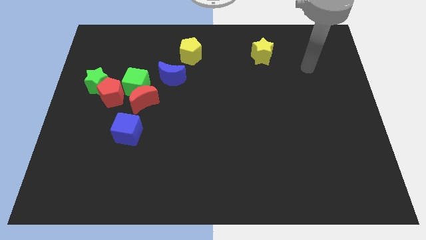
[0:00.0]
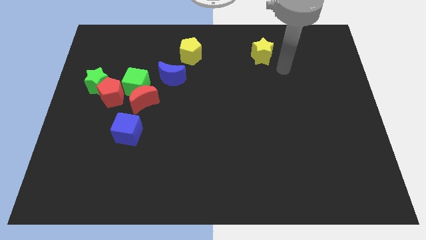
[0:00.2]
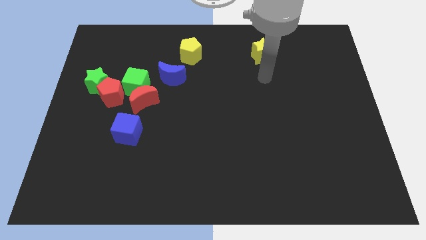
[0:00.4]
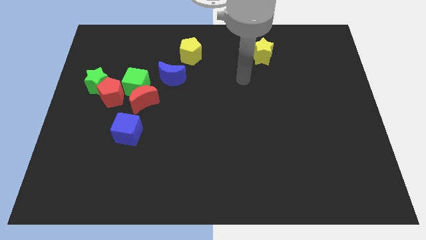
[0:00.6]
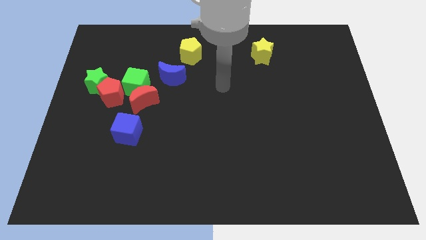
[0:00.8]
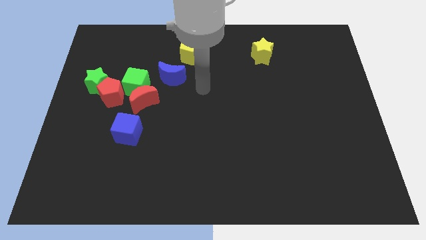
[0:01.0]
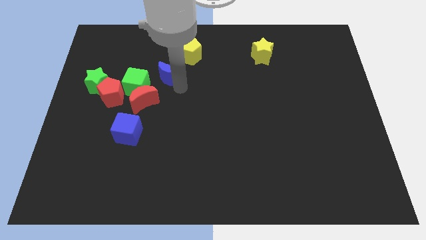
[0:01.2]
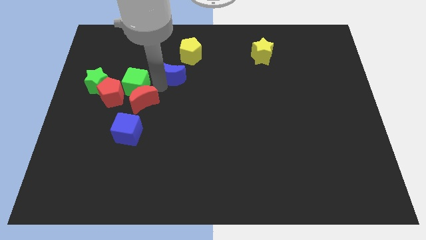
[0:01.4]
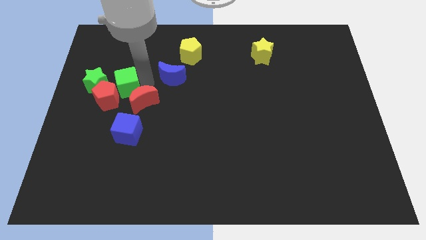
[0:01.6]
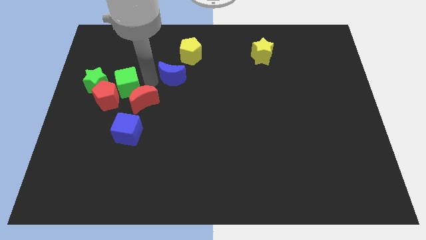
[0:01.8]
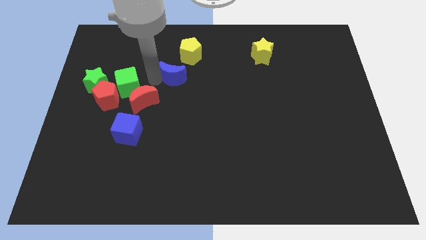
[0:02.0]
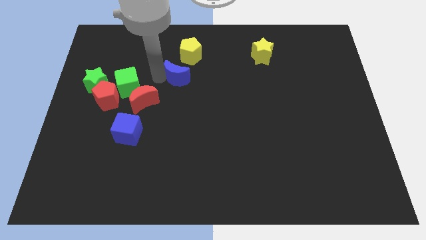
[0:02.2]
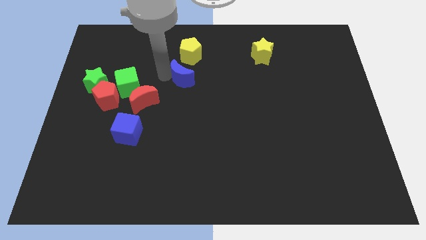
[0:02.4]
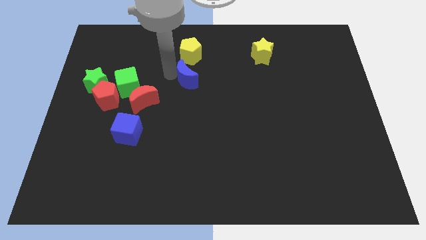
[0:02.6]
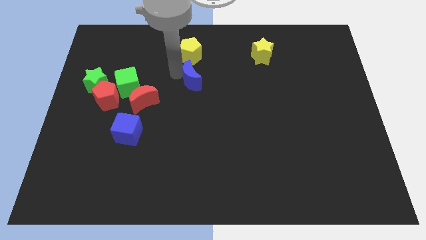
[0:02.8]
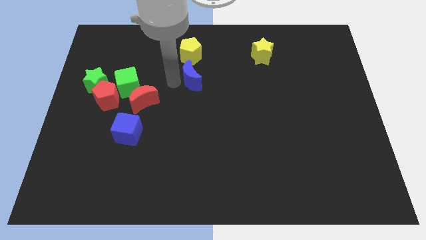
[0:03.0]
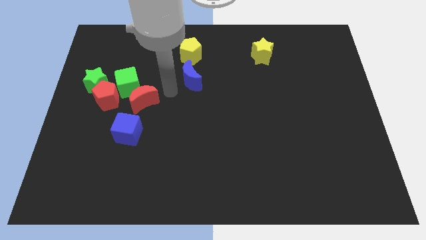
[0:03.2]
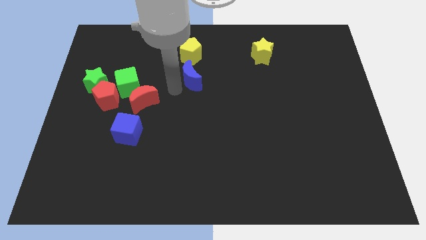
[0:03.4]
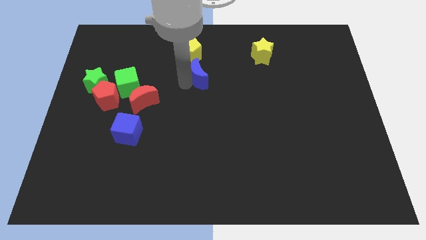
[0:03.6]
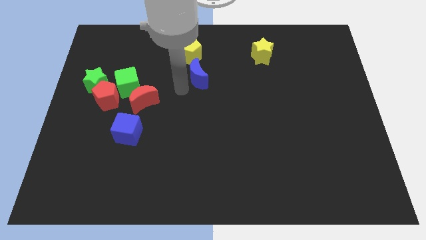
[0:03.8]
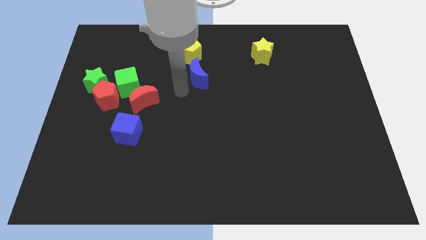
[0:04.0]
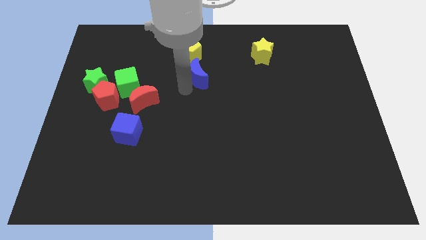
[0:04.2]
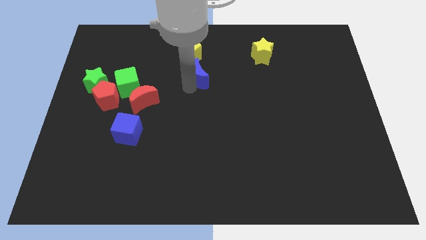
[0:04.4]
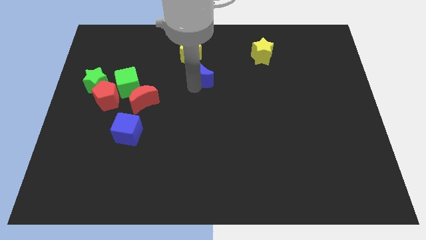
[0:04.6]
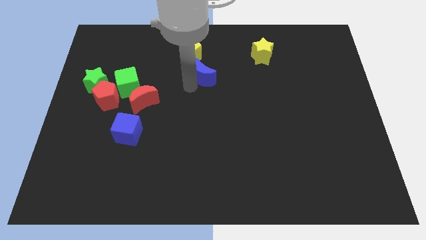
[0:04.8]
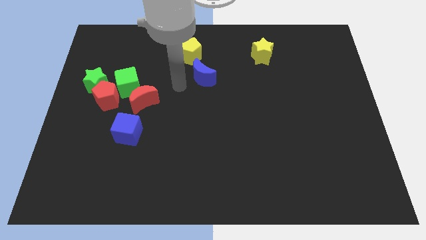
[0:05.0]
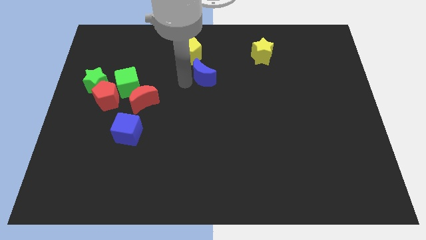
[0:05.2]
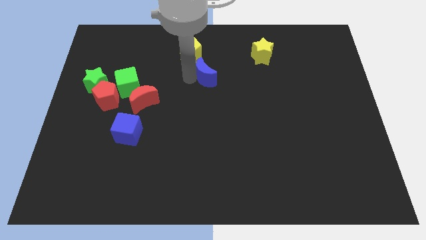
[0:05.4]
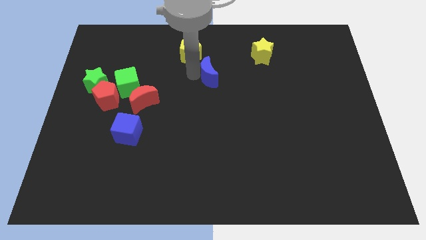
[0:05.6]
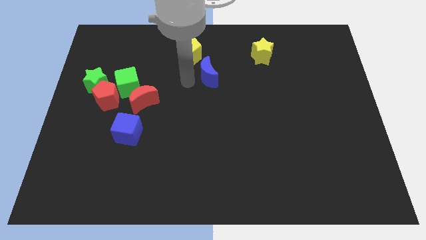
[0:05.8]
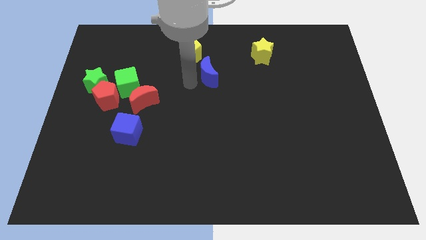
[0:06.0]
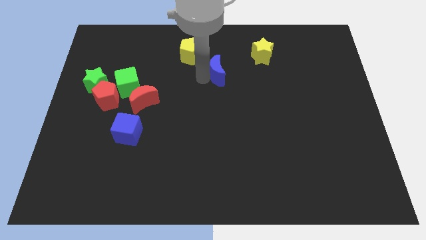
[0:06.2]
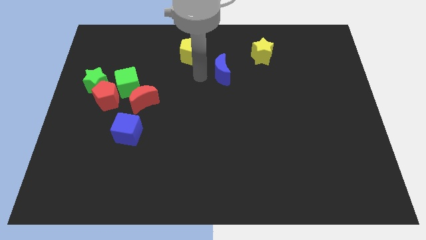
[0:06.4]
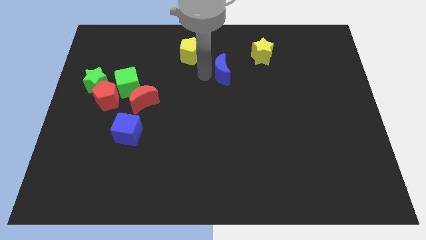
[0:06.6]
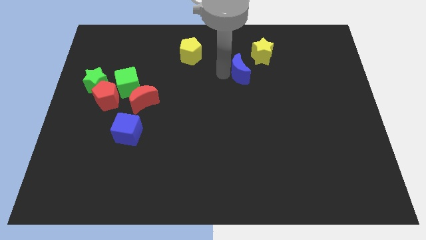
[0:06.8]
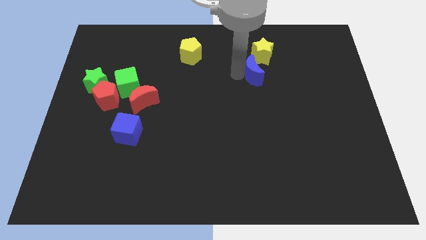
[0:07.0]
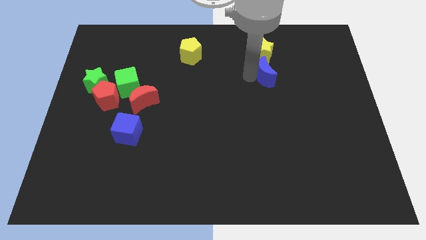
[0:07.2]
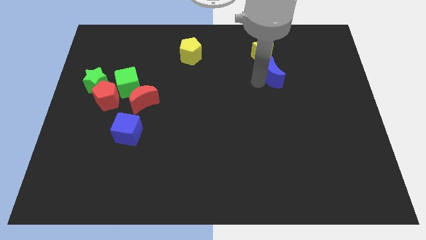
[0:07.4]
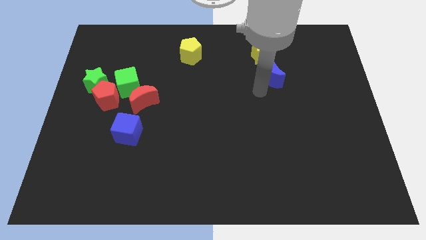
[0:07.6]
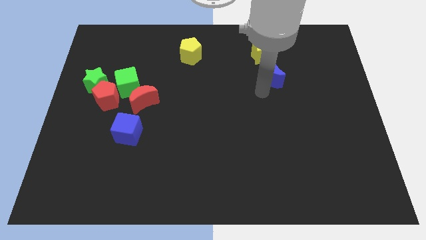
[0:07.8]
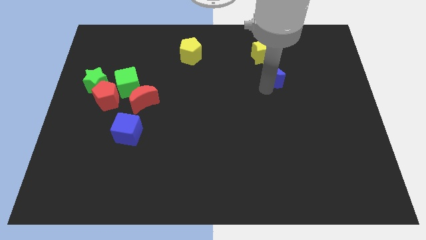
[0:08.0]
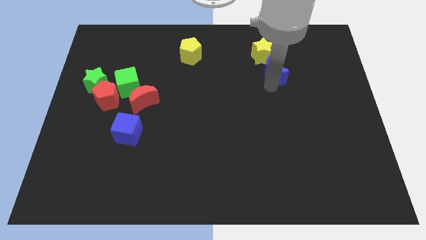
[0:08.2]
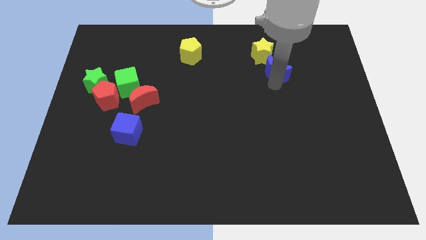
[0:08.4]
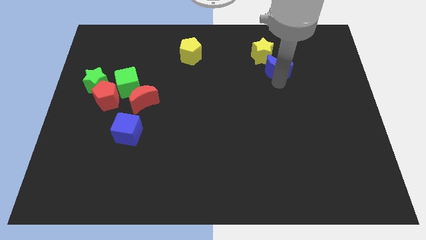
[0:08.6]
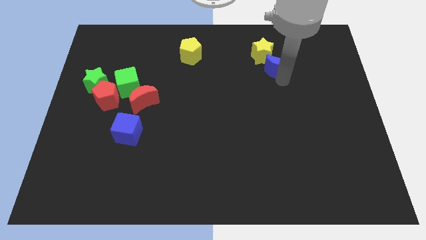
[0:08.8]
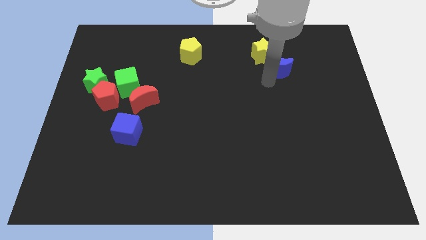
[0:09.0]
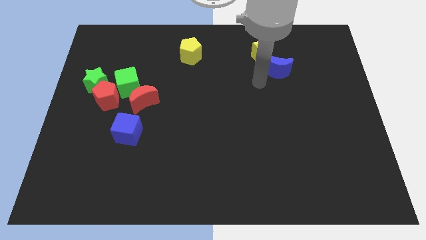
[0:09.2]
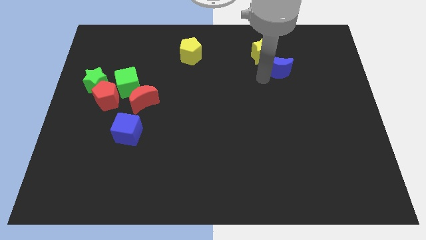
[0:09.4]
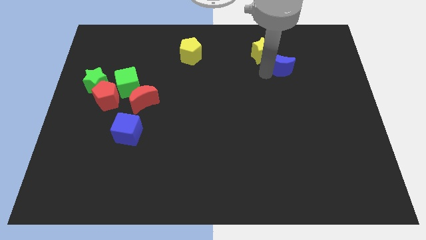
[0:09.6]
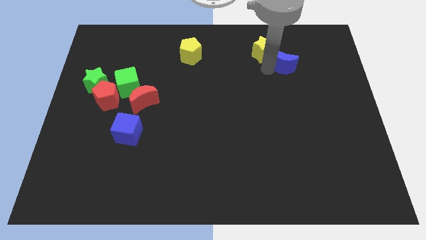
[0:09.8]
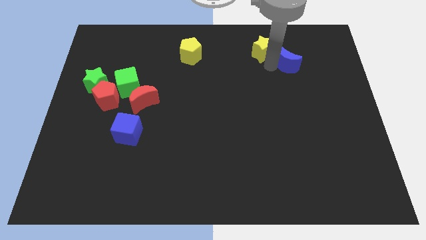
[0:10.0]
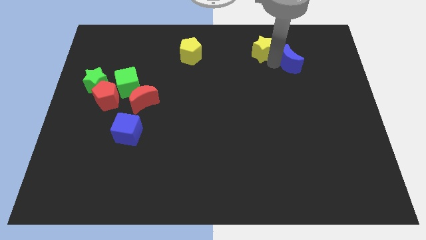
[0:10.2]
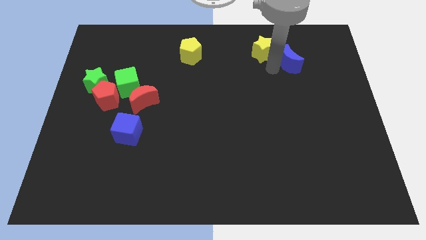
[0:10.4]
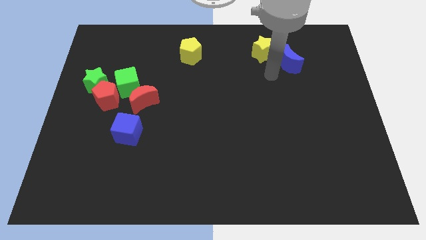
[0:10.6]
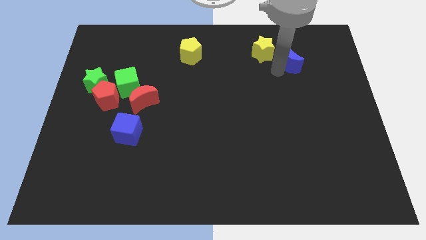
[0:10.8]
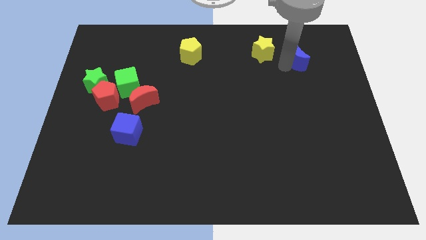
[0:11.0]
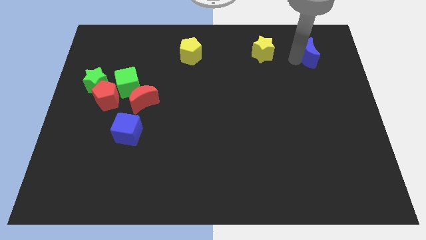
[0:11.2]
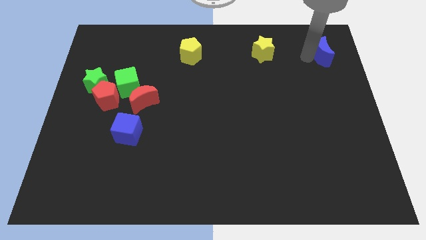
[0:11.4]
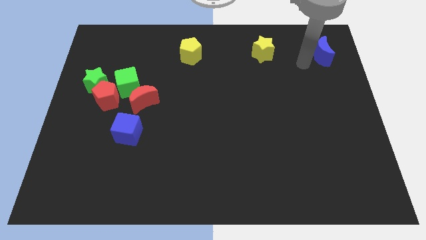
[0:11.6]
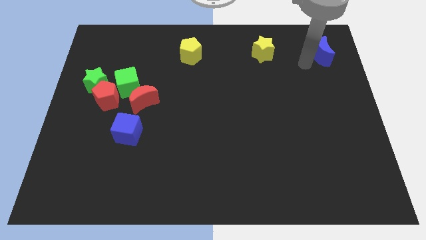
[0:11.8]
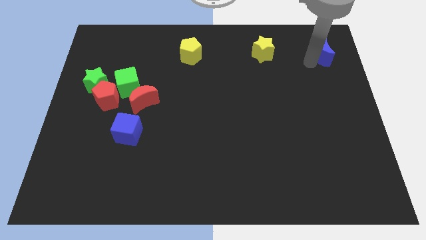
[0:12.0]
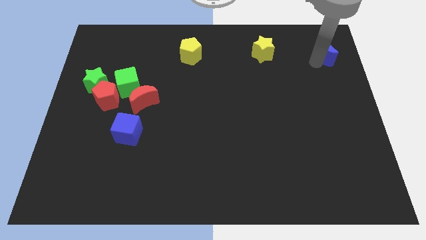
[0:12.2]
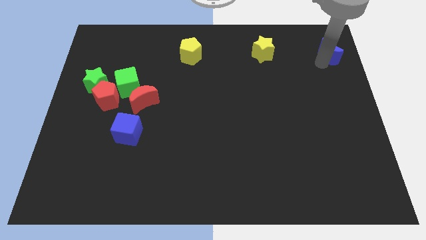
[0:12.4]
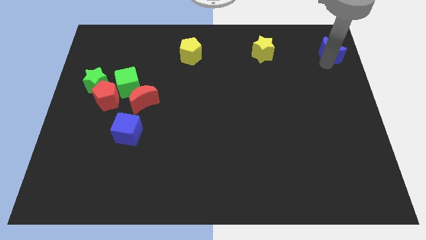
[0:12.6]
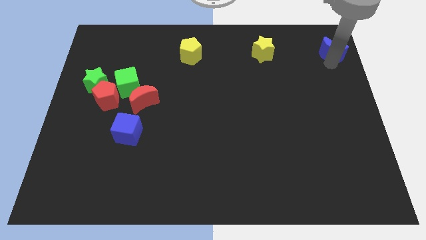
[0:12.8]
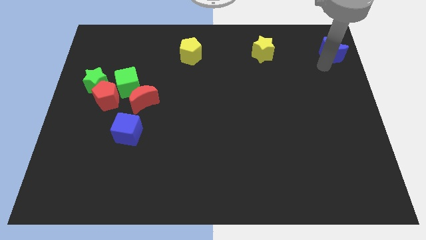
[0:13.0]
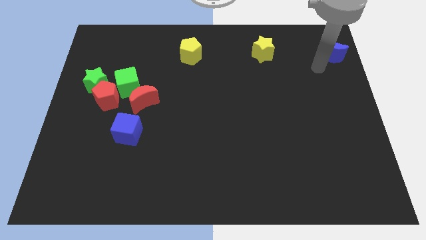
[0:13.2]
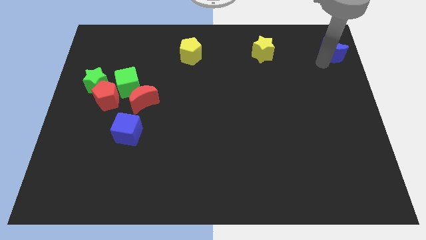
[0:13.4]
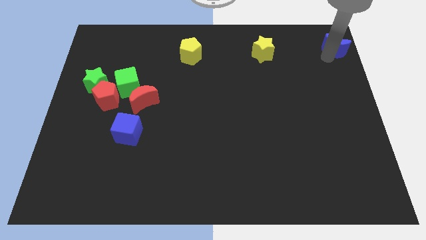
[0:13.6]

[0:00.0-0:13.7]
slide the blue moon to the top right

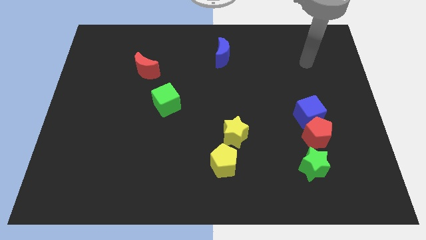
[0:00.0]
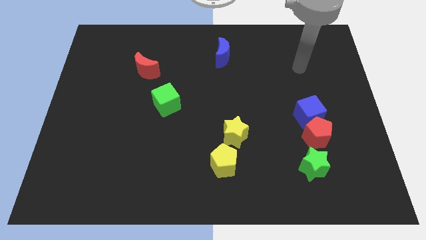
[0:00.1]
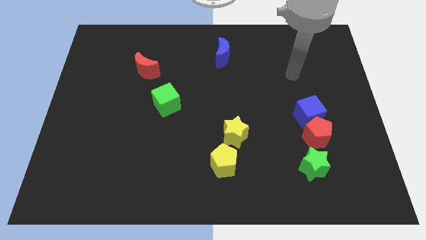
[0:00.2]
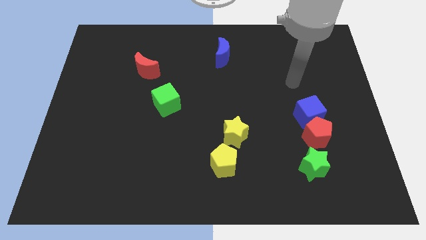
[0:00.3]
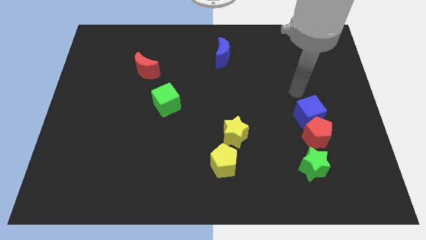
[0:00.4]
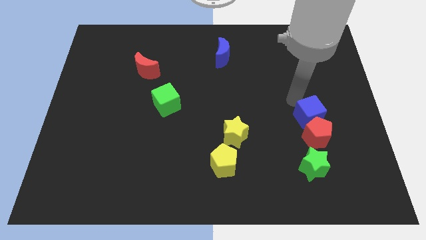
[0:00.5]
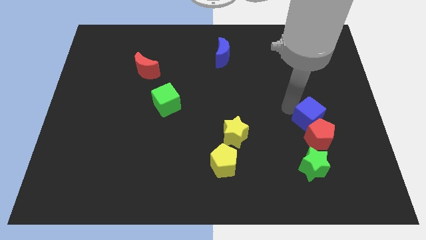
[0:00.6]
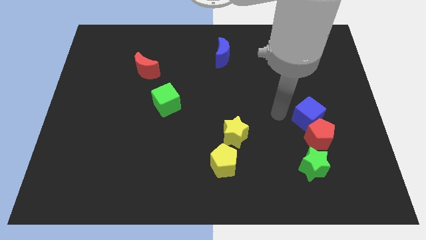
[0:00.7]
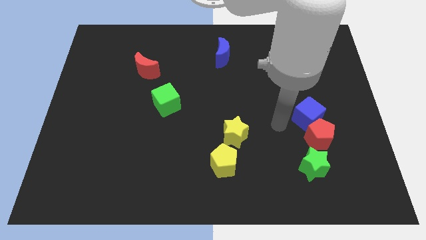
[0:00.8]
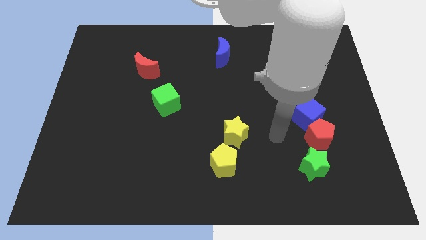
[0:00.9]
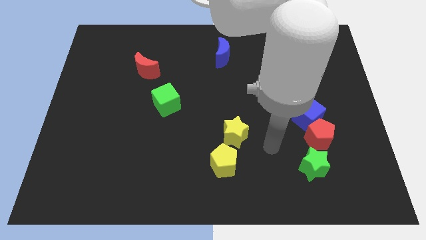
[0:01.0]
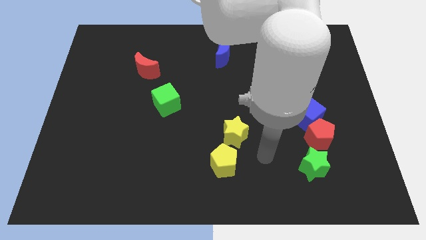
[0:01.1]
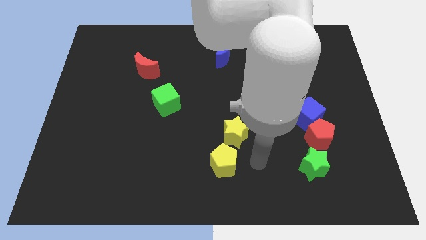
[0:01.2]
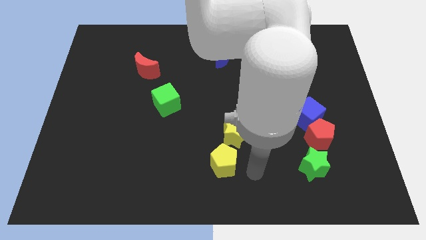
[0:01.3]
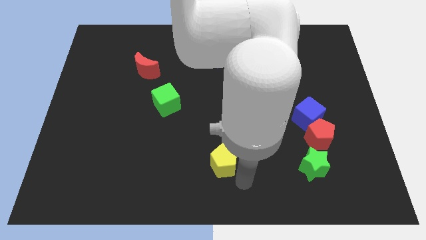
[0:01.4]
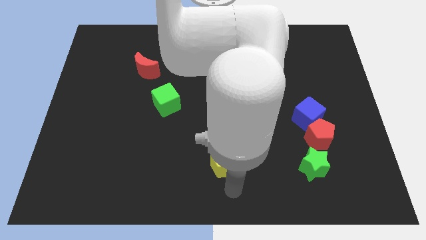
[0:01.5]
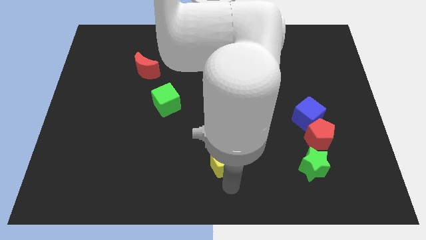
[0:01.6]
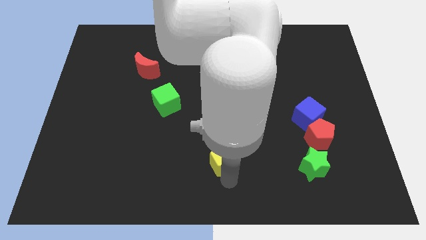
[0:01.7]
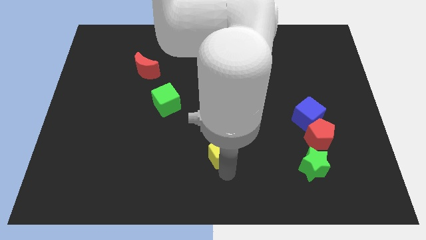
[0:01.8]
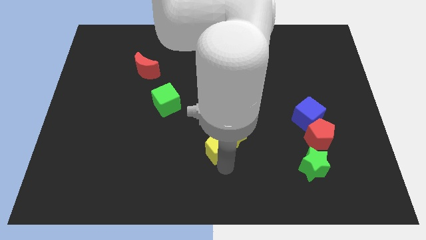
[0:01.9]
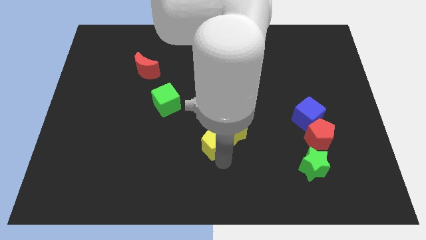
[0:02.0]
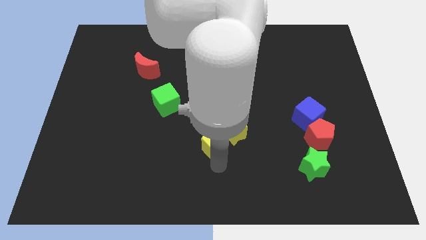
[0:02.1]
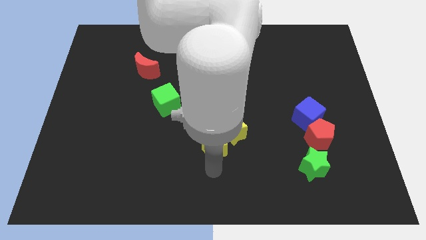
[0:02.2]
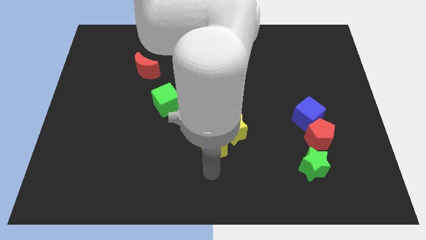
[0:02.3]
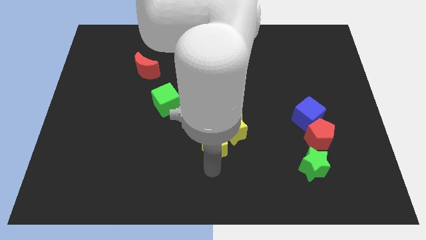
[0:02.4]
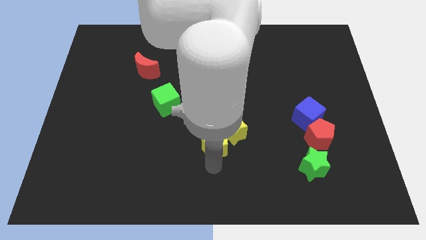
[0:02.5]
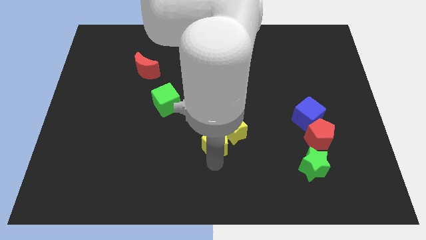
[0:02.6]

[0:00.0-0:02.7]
put the yellow pentagon to the middle of the board
